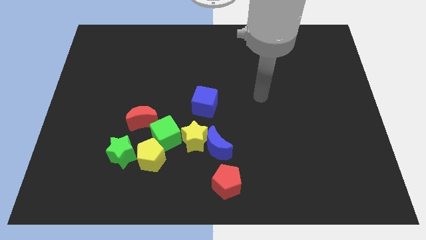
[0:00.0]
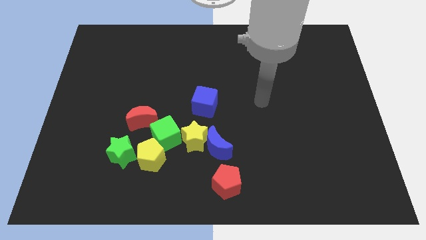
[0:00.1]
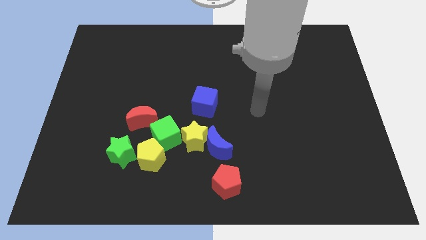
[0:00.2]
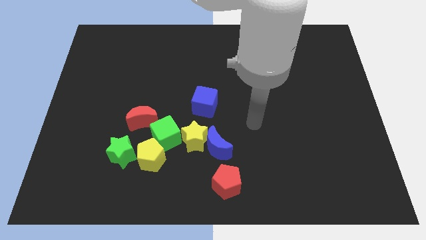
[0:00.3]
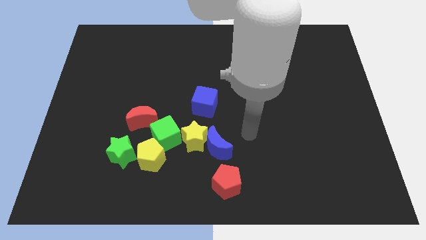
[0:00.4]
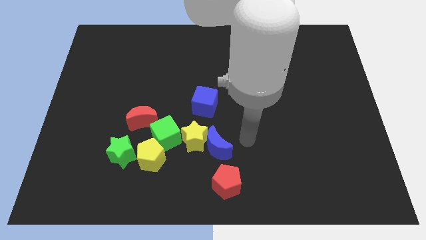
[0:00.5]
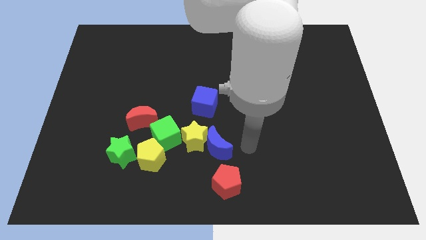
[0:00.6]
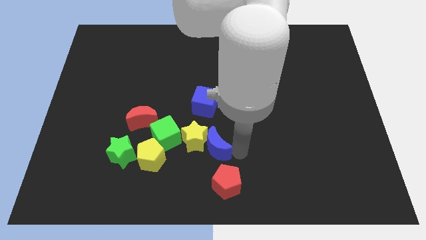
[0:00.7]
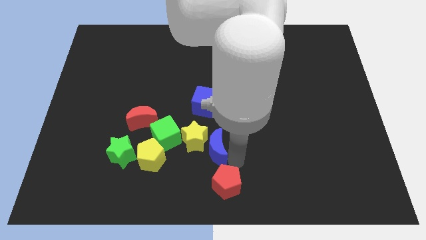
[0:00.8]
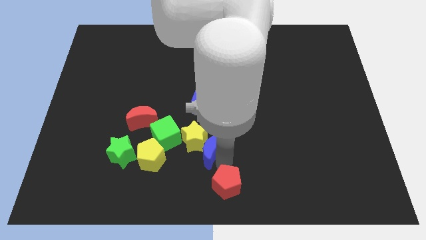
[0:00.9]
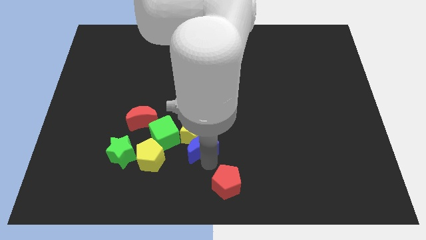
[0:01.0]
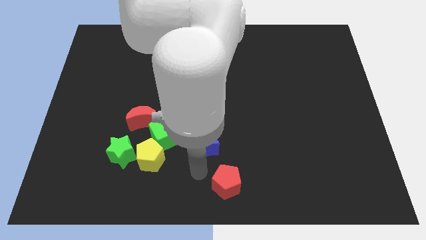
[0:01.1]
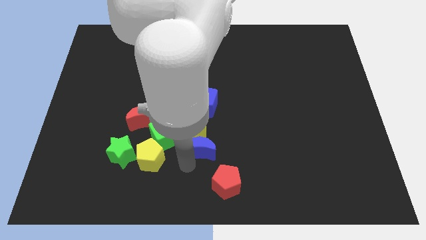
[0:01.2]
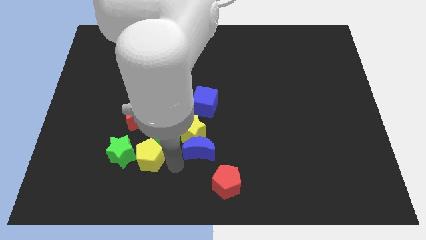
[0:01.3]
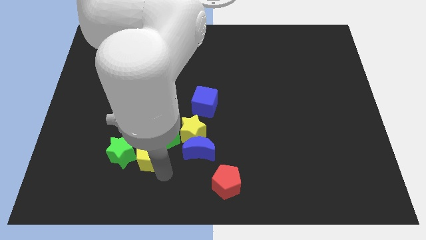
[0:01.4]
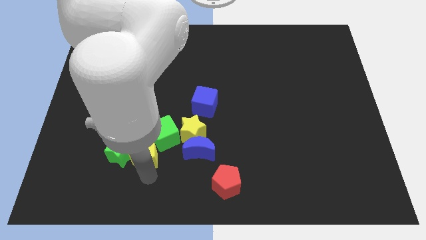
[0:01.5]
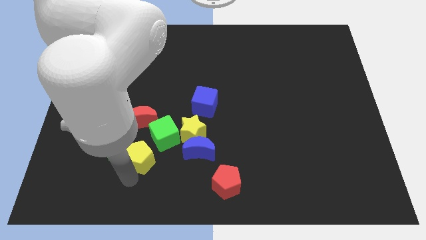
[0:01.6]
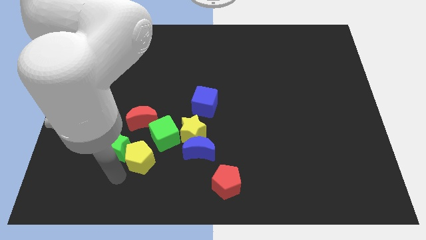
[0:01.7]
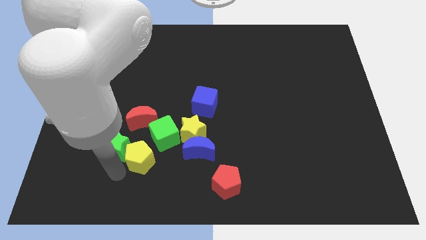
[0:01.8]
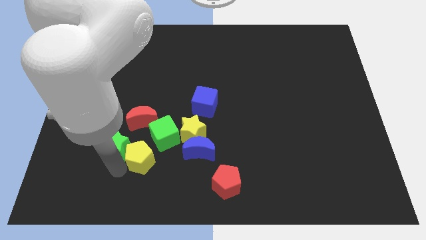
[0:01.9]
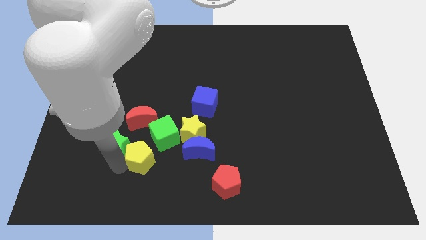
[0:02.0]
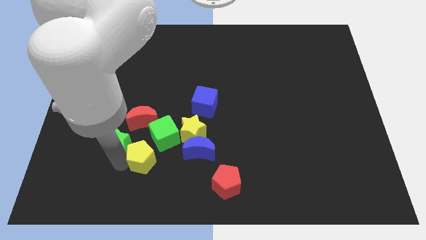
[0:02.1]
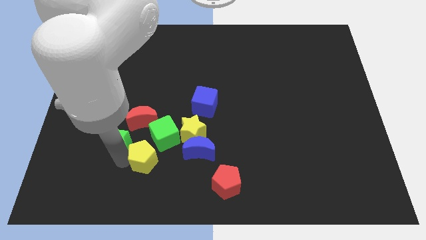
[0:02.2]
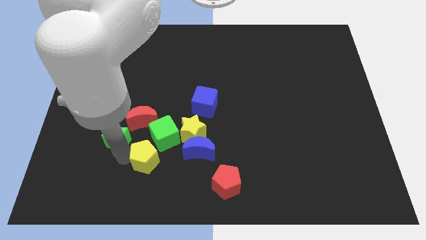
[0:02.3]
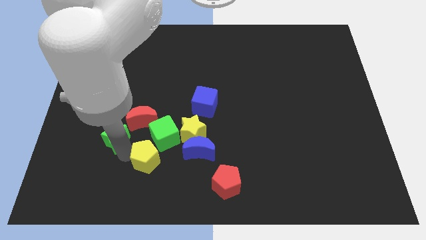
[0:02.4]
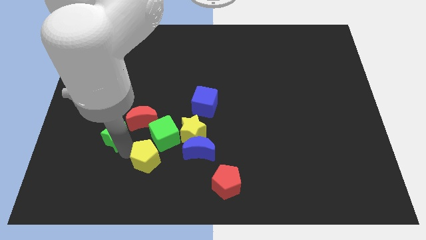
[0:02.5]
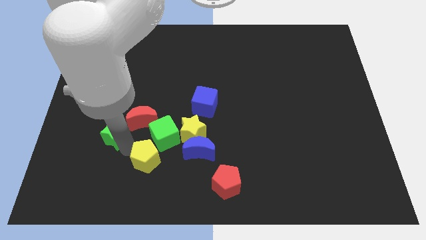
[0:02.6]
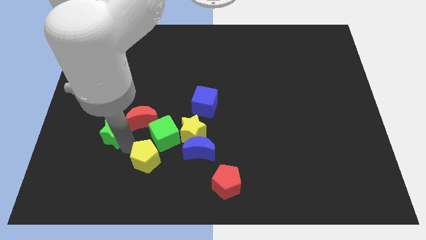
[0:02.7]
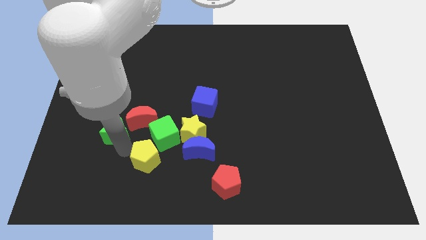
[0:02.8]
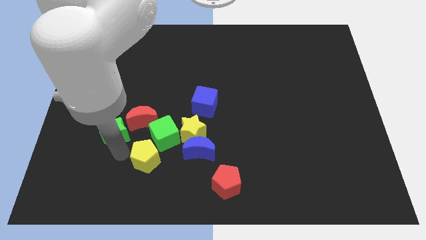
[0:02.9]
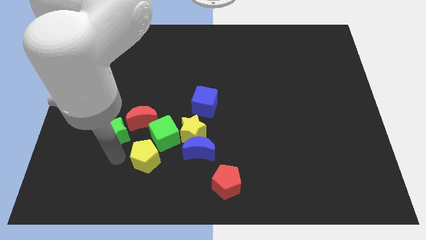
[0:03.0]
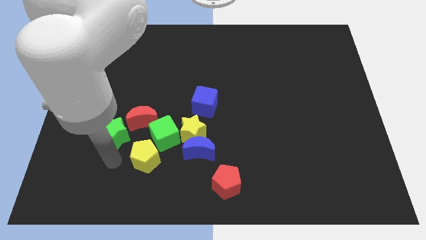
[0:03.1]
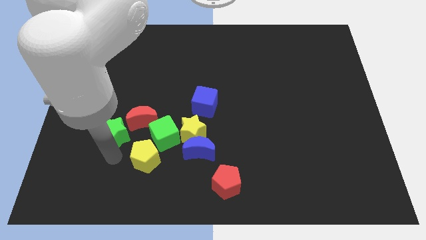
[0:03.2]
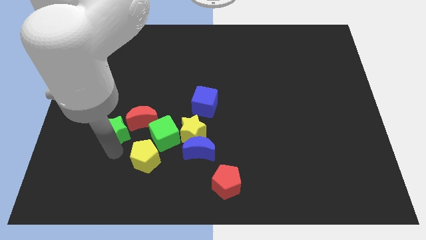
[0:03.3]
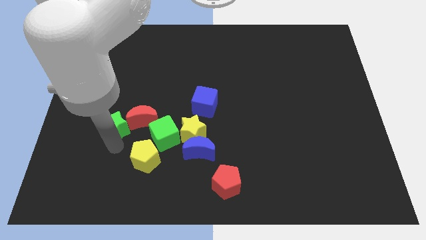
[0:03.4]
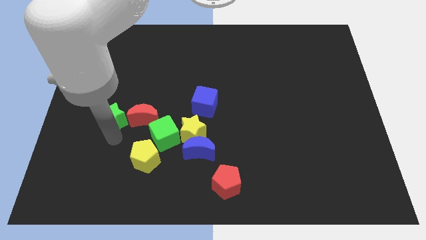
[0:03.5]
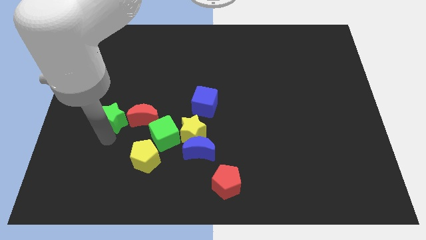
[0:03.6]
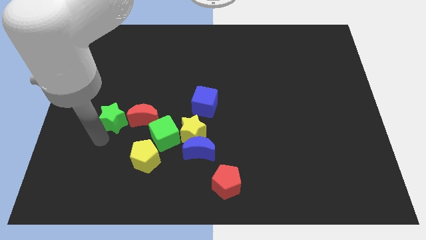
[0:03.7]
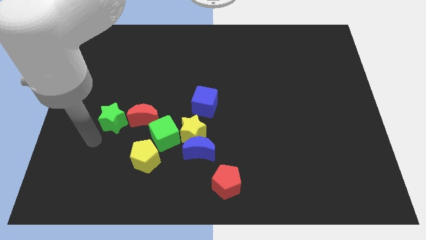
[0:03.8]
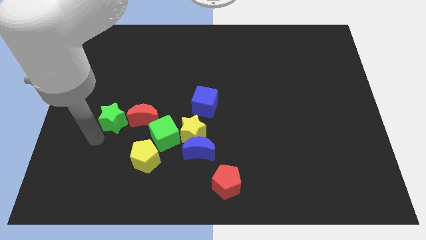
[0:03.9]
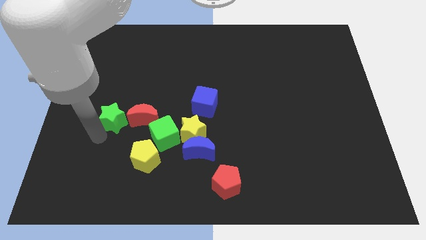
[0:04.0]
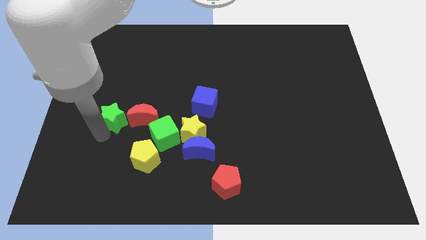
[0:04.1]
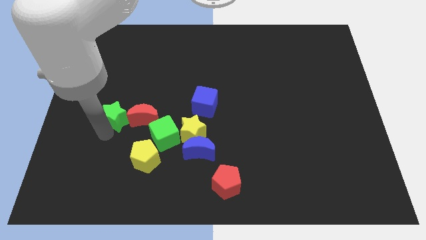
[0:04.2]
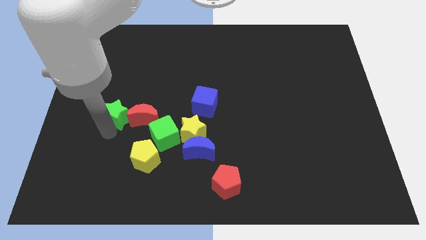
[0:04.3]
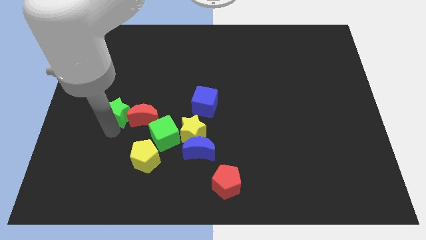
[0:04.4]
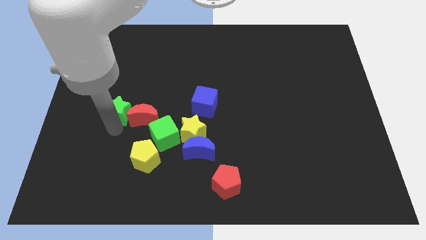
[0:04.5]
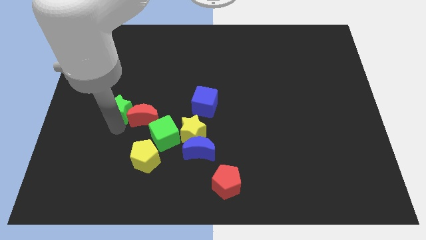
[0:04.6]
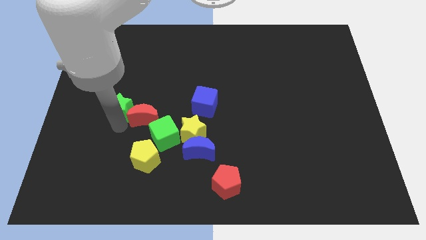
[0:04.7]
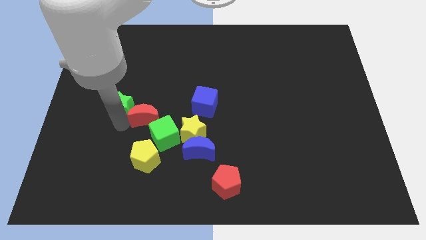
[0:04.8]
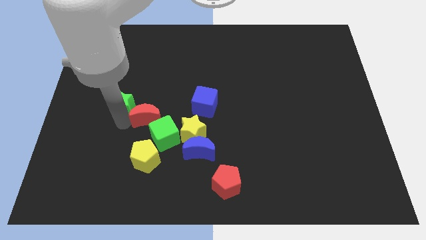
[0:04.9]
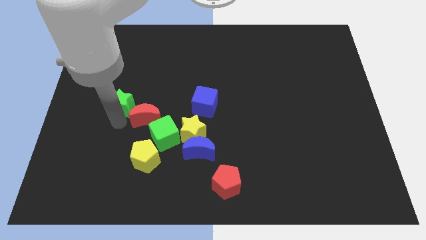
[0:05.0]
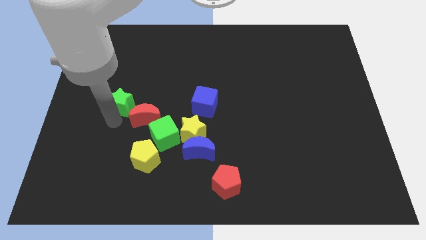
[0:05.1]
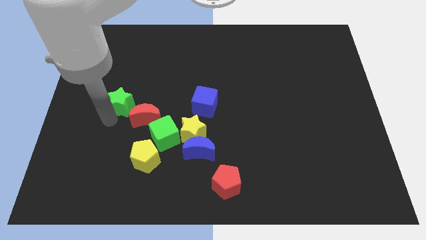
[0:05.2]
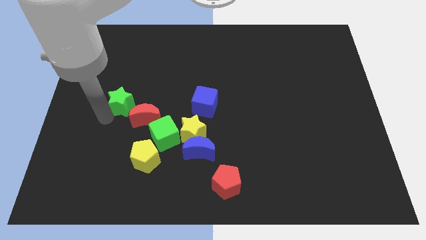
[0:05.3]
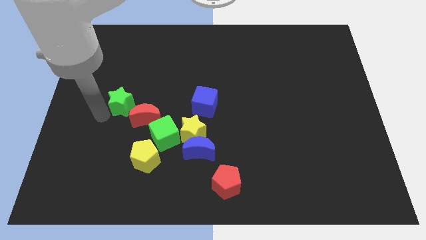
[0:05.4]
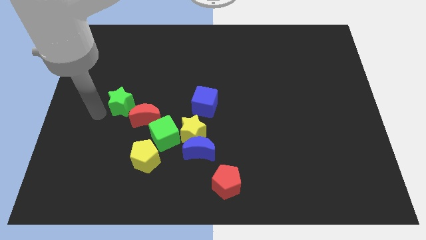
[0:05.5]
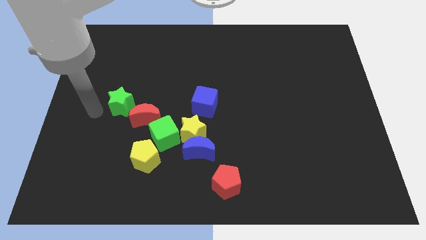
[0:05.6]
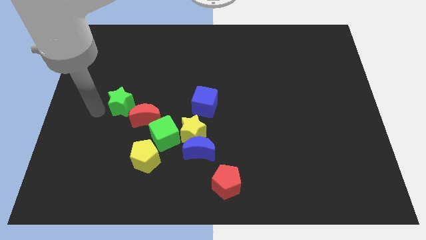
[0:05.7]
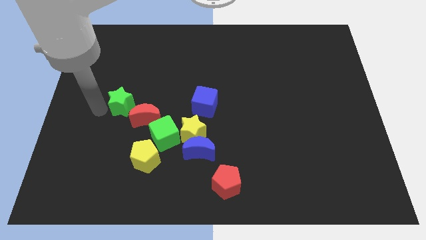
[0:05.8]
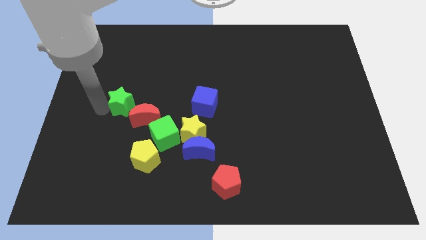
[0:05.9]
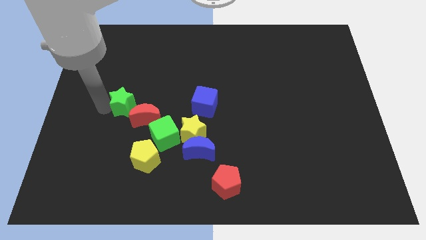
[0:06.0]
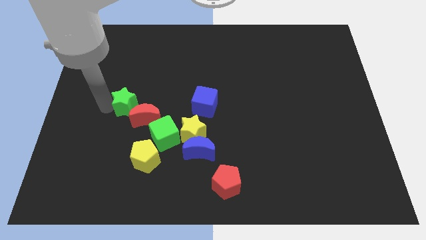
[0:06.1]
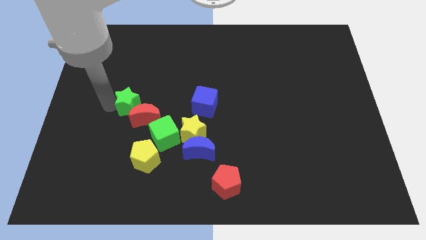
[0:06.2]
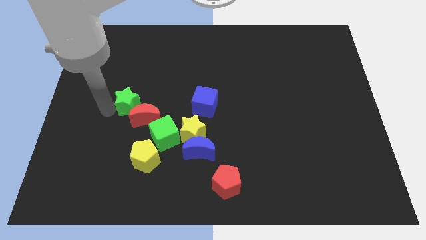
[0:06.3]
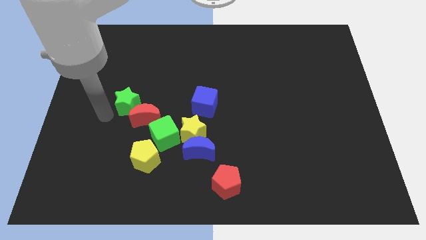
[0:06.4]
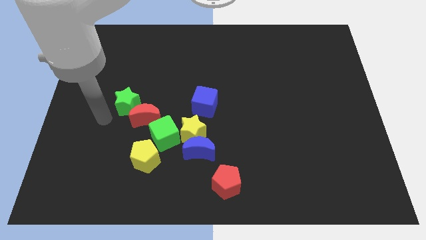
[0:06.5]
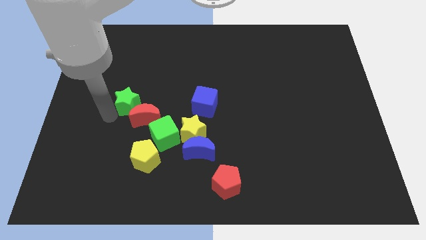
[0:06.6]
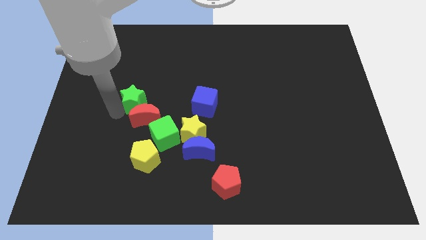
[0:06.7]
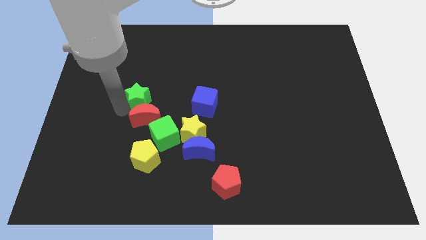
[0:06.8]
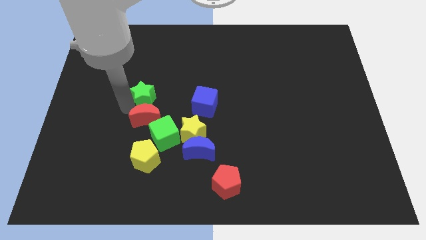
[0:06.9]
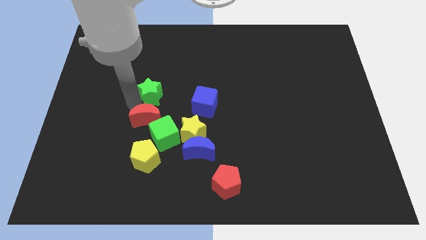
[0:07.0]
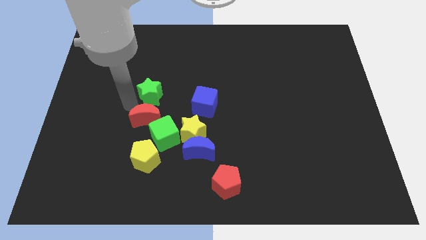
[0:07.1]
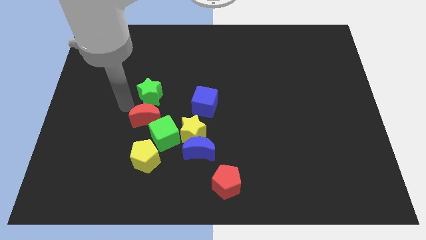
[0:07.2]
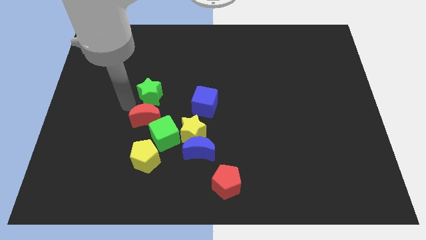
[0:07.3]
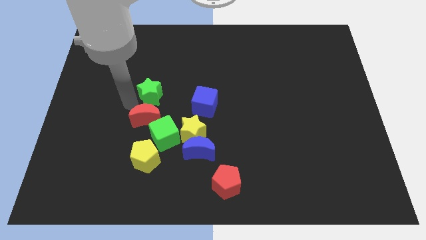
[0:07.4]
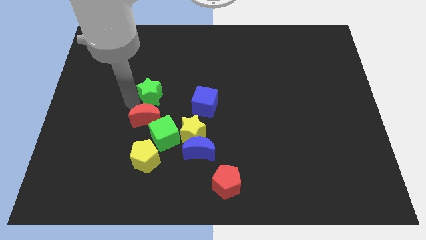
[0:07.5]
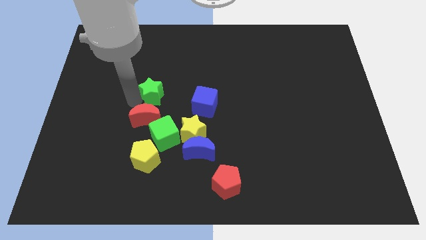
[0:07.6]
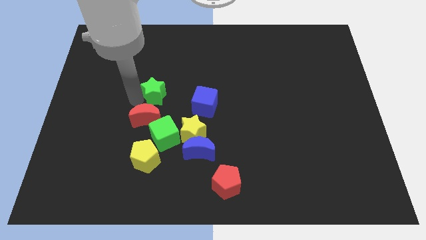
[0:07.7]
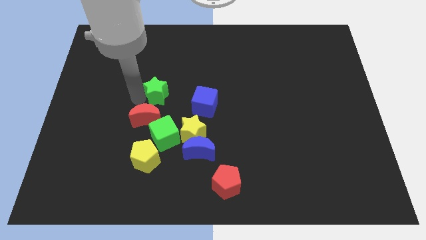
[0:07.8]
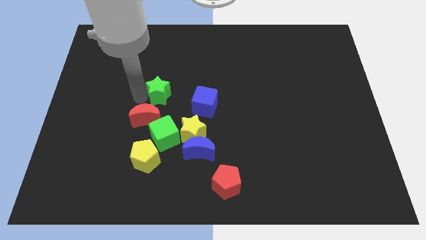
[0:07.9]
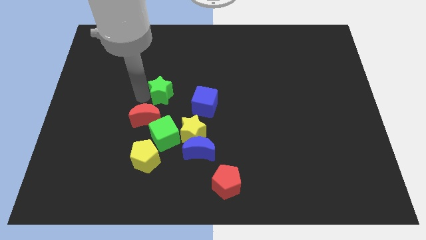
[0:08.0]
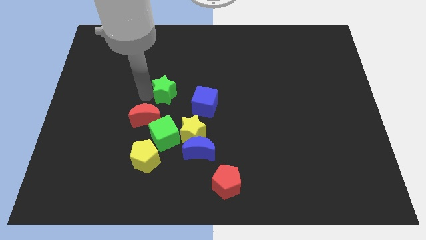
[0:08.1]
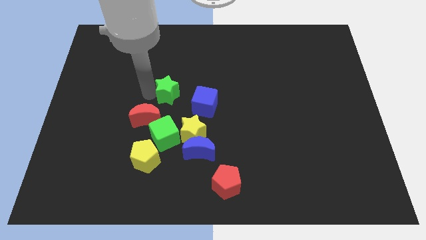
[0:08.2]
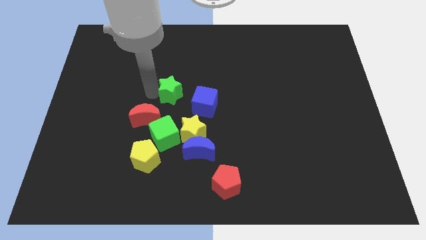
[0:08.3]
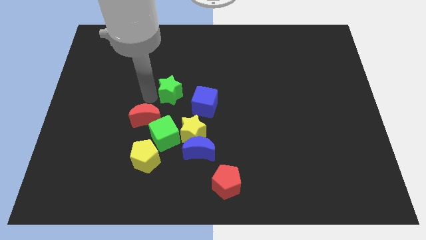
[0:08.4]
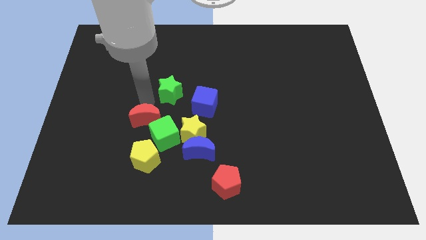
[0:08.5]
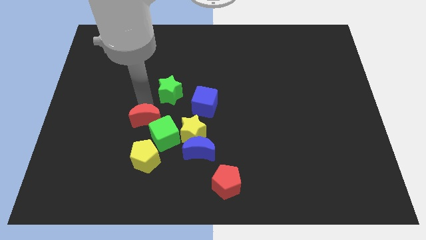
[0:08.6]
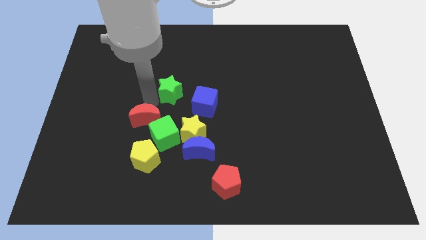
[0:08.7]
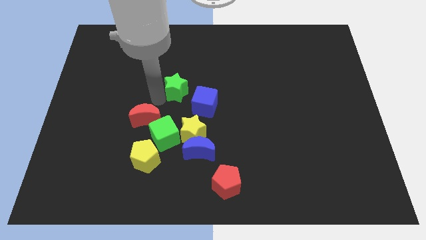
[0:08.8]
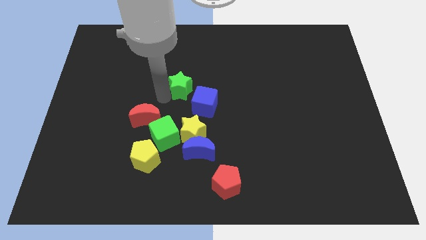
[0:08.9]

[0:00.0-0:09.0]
slide the green star up and right
